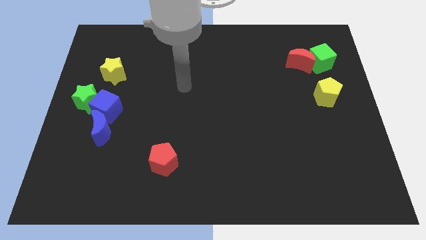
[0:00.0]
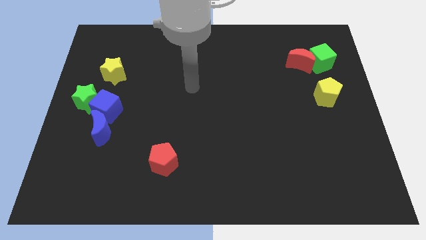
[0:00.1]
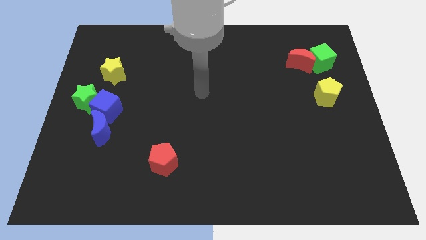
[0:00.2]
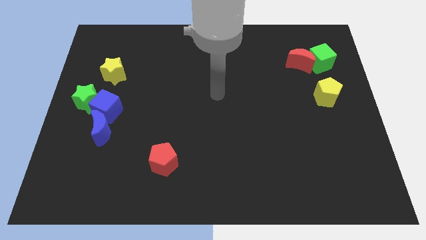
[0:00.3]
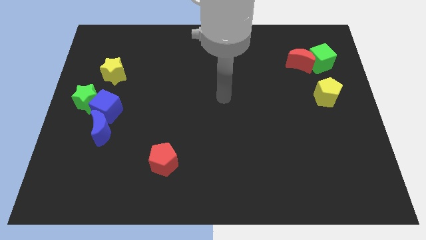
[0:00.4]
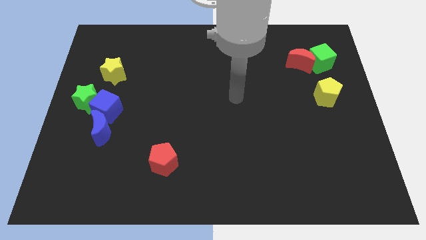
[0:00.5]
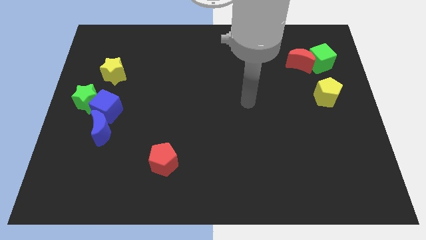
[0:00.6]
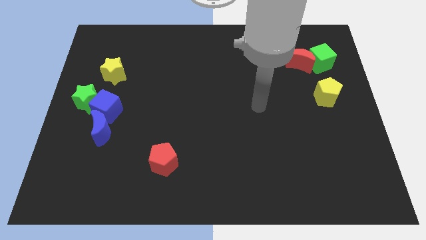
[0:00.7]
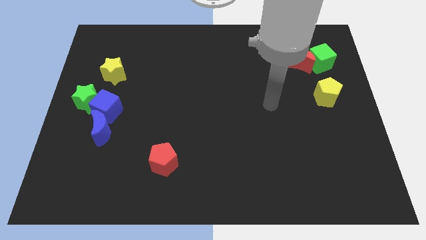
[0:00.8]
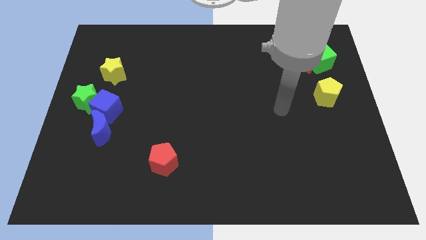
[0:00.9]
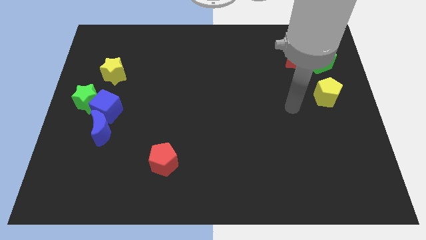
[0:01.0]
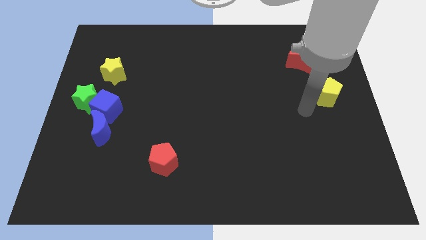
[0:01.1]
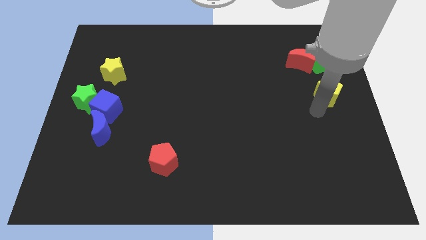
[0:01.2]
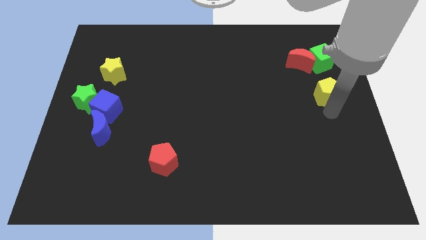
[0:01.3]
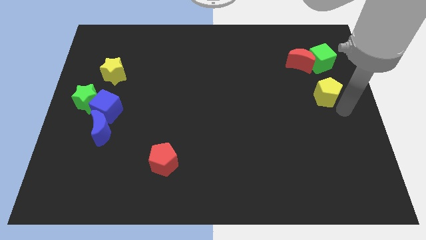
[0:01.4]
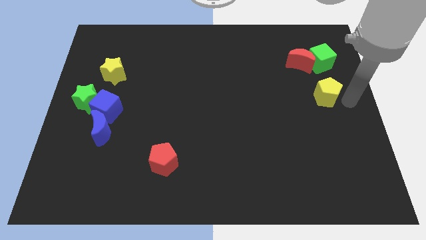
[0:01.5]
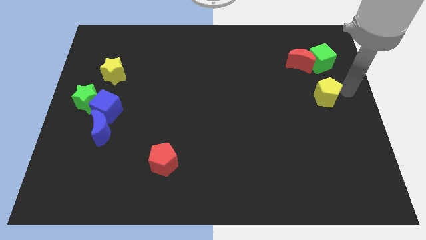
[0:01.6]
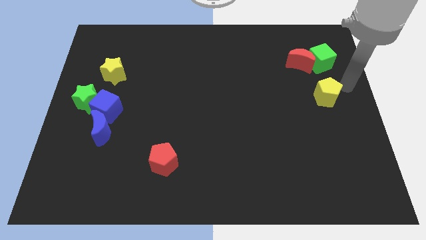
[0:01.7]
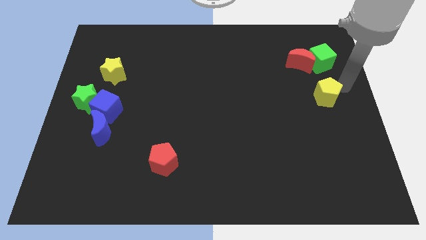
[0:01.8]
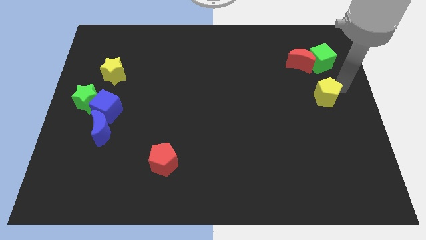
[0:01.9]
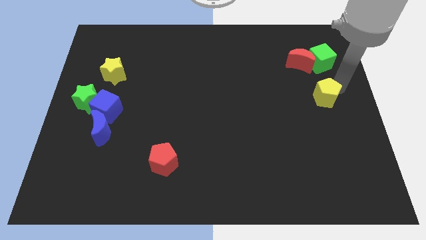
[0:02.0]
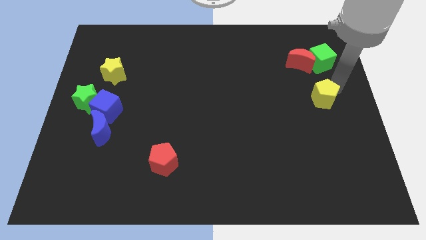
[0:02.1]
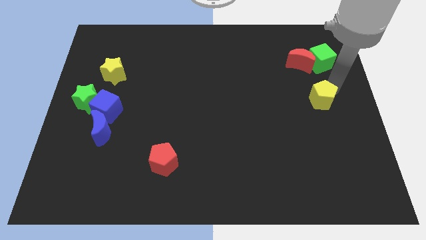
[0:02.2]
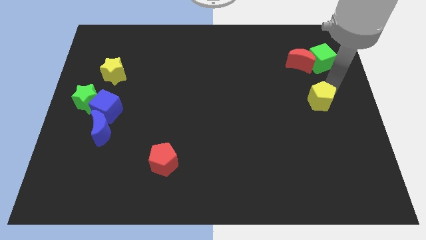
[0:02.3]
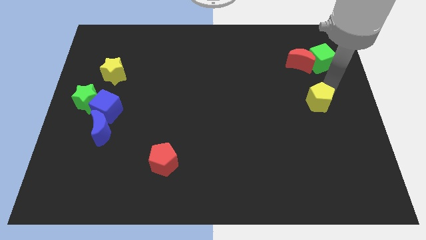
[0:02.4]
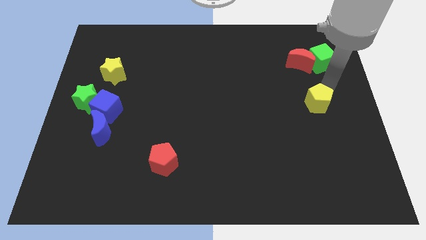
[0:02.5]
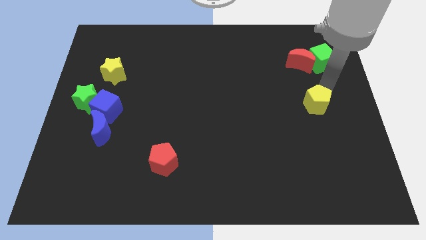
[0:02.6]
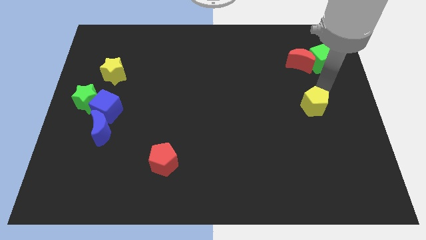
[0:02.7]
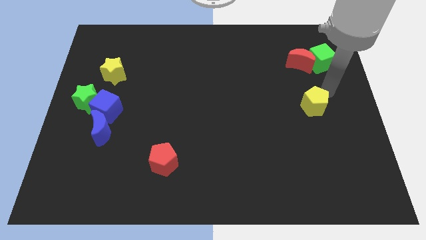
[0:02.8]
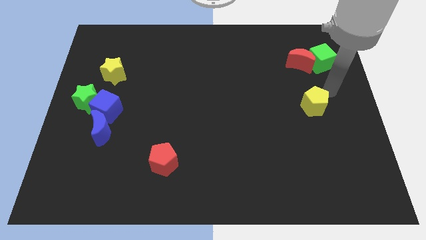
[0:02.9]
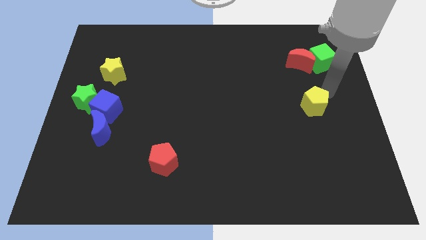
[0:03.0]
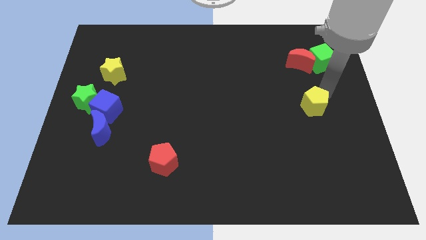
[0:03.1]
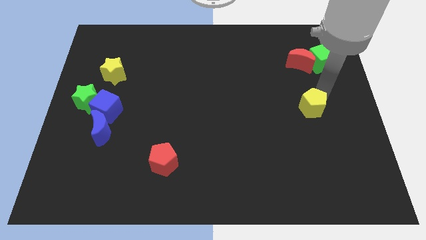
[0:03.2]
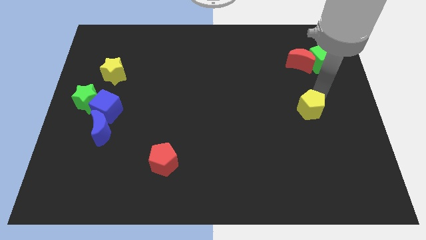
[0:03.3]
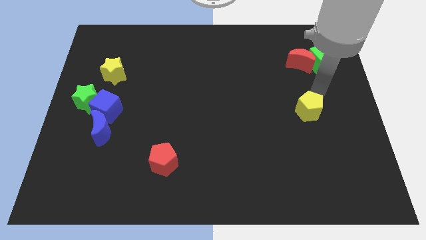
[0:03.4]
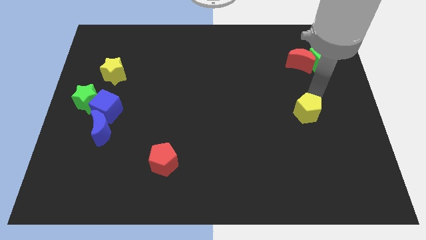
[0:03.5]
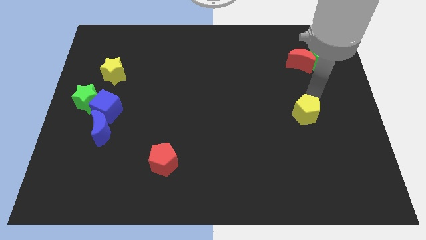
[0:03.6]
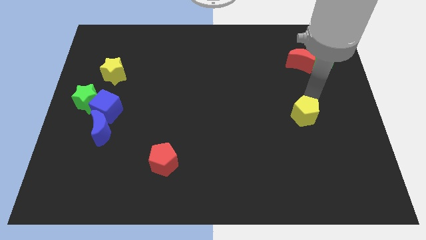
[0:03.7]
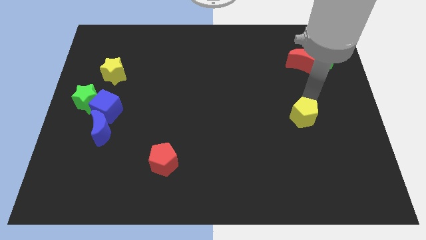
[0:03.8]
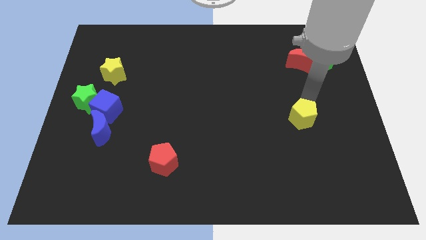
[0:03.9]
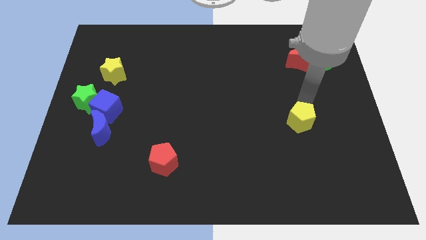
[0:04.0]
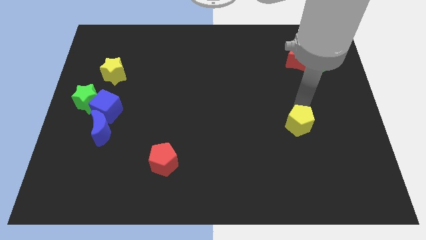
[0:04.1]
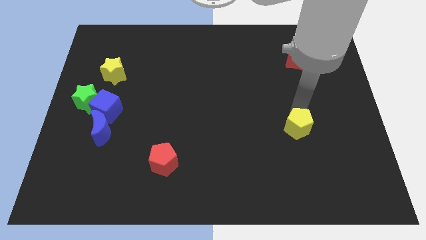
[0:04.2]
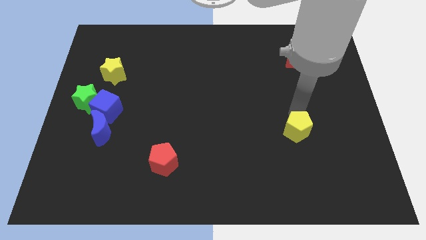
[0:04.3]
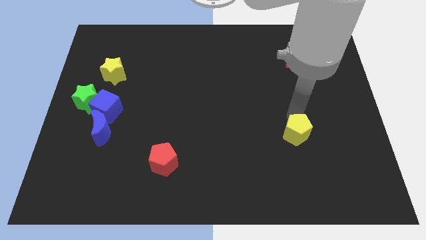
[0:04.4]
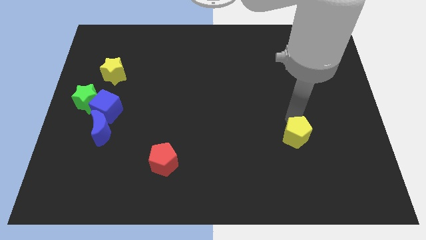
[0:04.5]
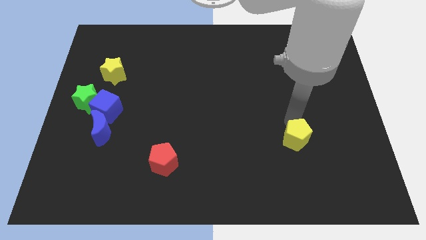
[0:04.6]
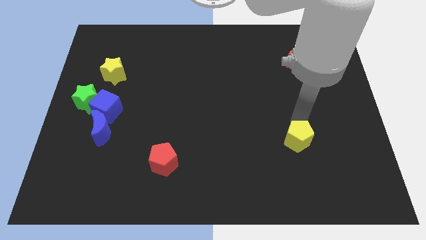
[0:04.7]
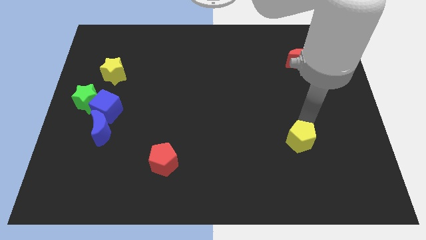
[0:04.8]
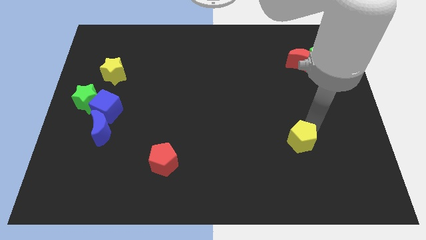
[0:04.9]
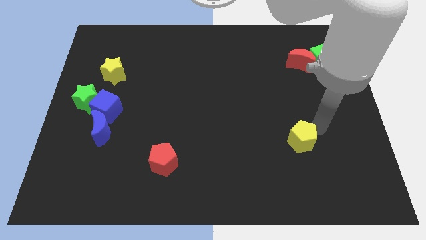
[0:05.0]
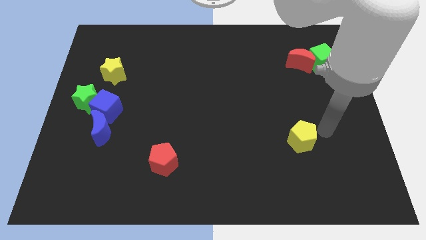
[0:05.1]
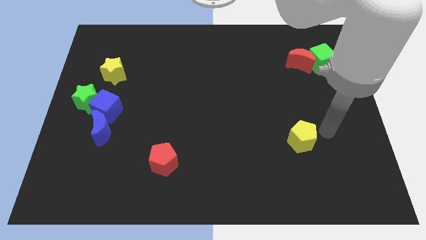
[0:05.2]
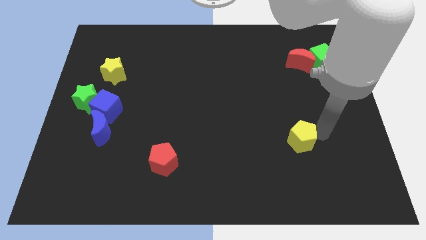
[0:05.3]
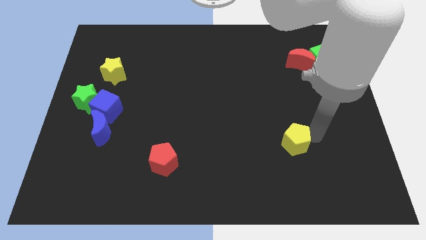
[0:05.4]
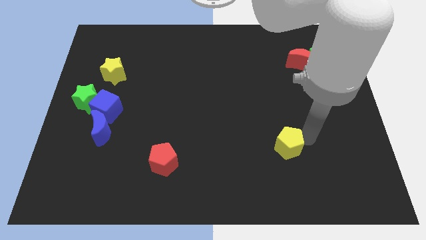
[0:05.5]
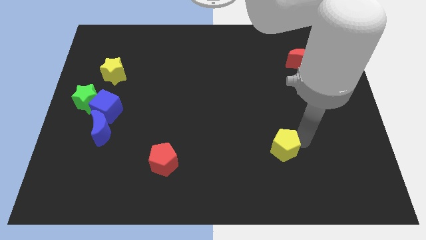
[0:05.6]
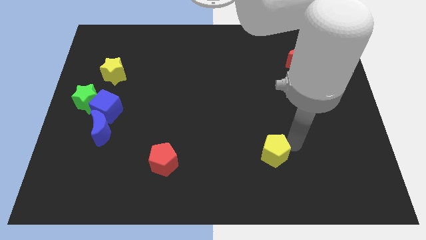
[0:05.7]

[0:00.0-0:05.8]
move the yellow pentagon diagonally down and to the left

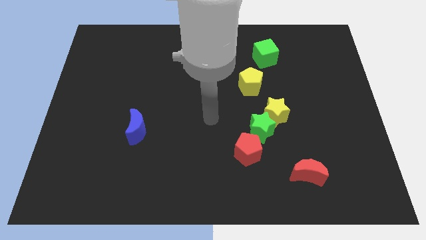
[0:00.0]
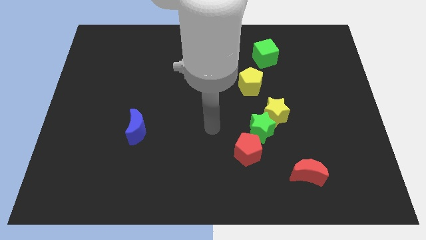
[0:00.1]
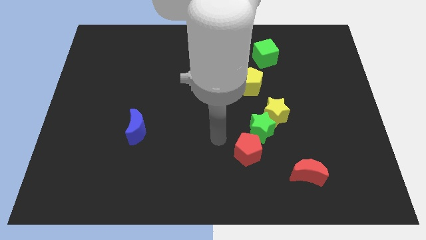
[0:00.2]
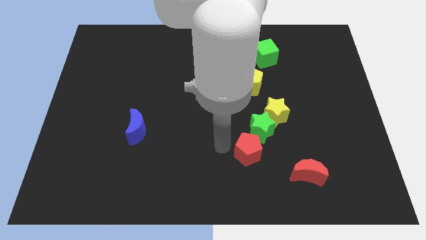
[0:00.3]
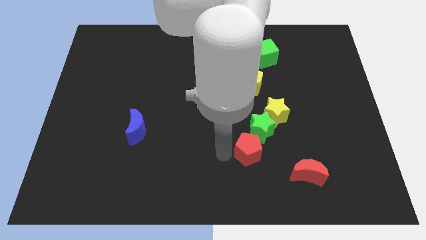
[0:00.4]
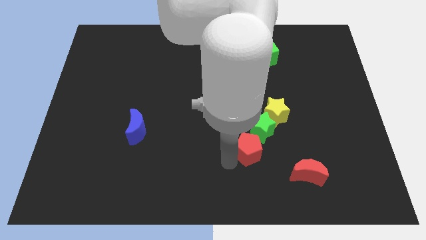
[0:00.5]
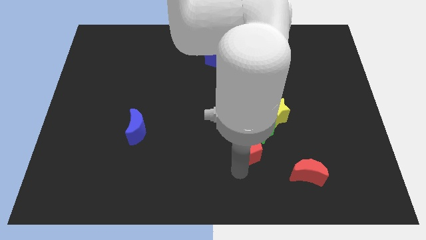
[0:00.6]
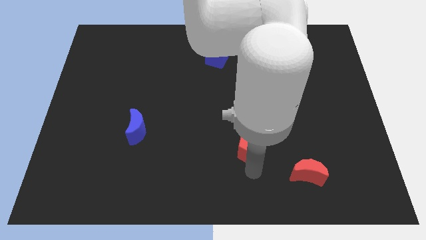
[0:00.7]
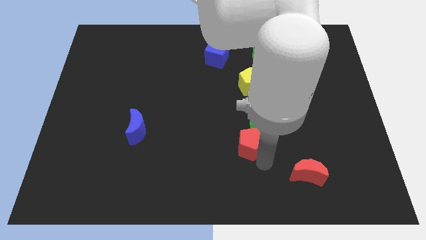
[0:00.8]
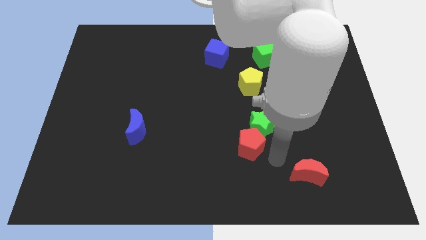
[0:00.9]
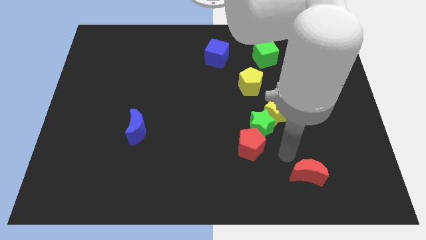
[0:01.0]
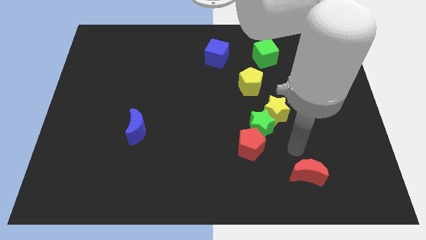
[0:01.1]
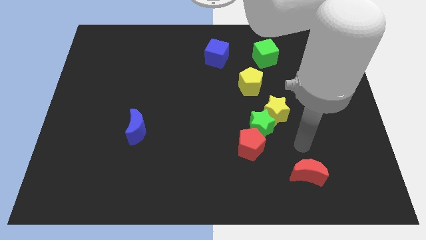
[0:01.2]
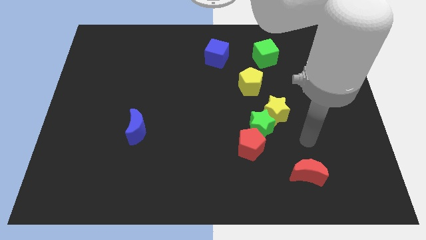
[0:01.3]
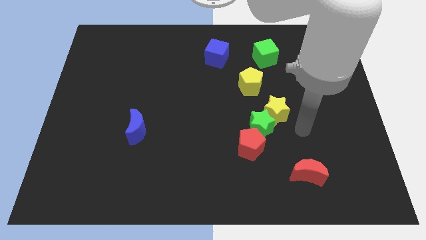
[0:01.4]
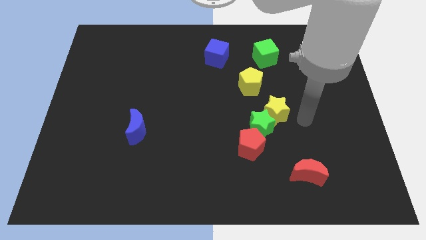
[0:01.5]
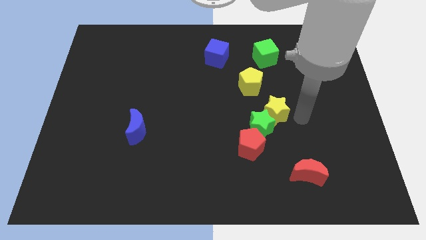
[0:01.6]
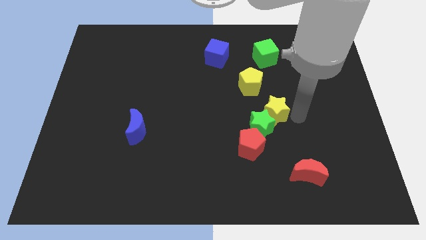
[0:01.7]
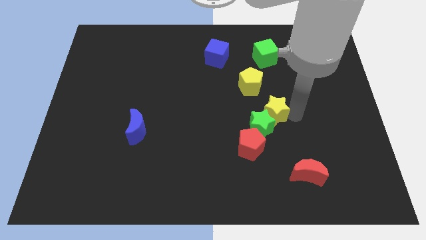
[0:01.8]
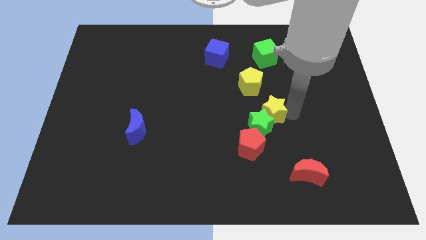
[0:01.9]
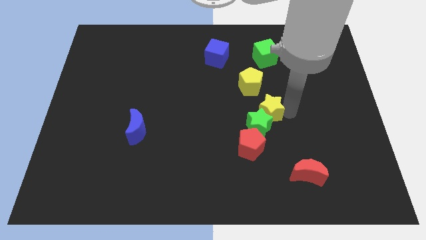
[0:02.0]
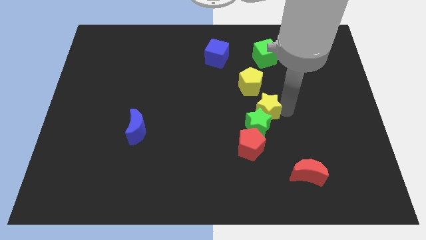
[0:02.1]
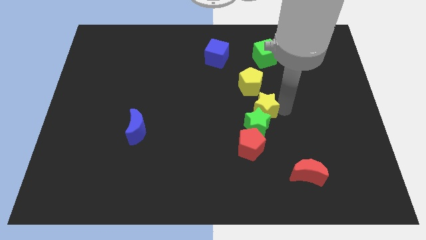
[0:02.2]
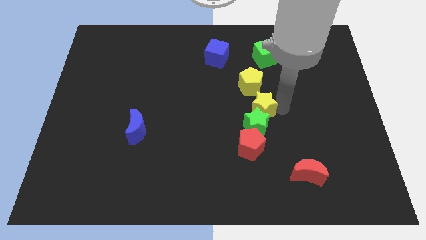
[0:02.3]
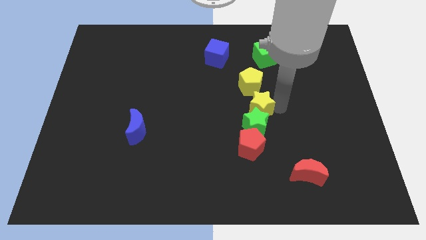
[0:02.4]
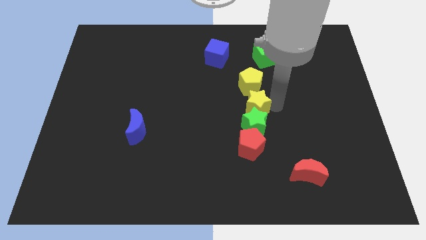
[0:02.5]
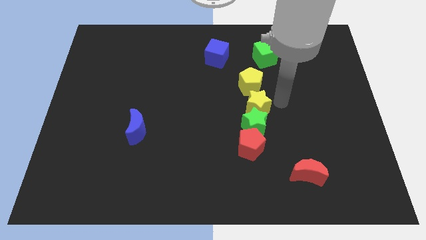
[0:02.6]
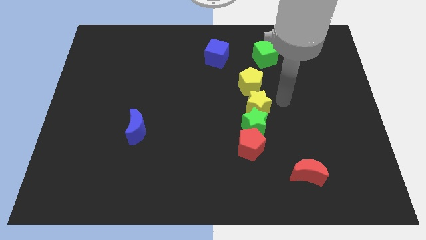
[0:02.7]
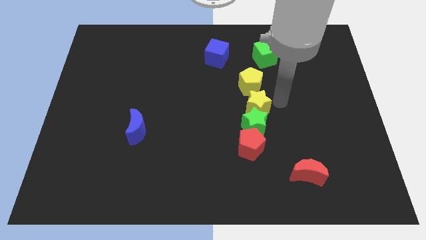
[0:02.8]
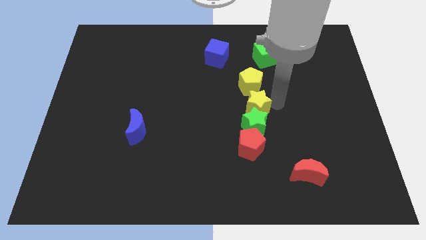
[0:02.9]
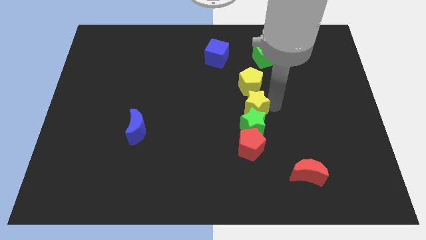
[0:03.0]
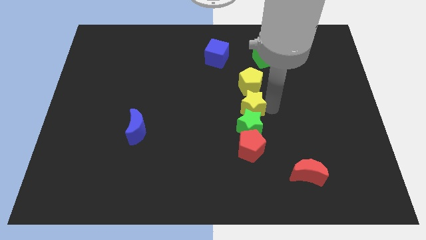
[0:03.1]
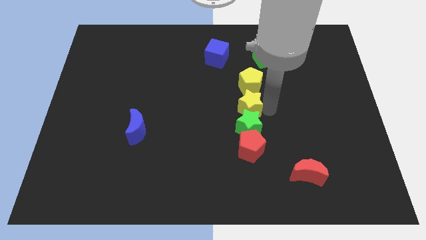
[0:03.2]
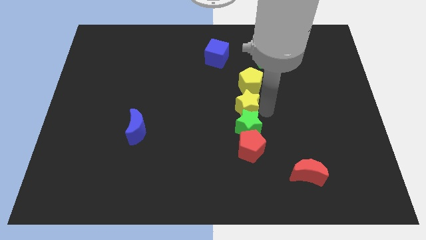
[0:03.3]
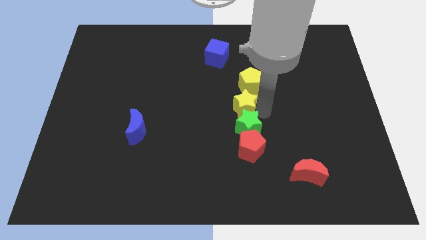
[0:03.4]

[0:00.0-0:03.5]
slightly slide the yellow star to the left
